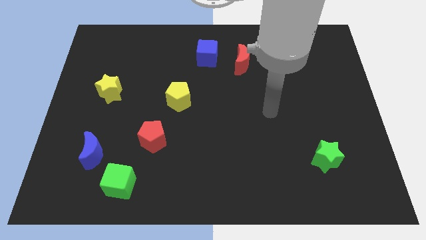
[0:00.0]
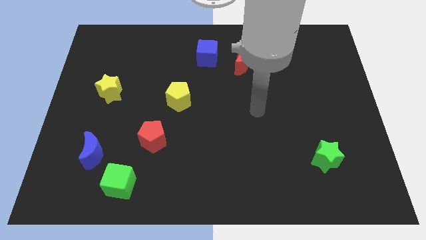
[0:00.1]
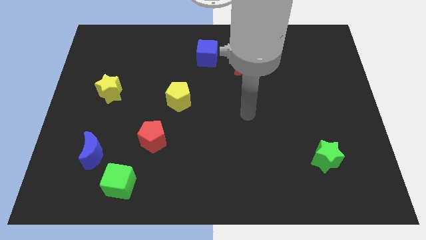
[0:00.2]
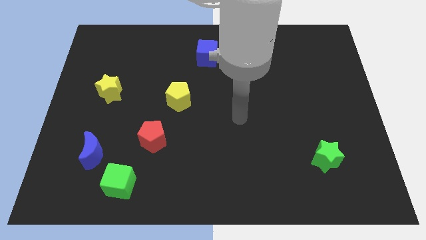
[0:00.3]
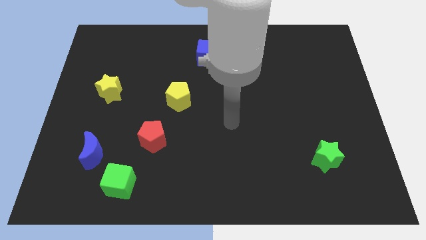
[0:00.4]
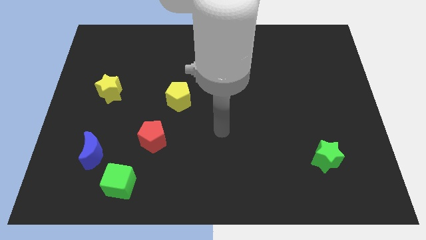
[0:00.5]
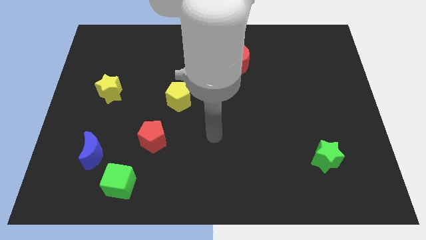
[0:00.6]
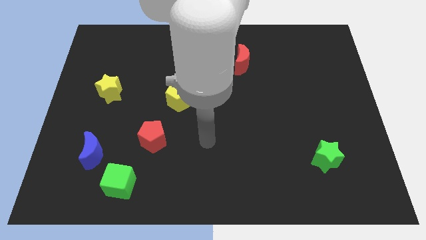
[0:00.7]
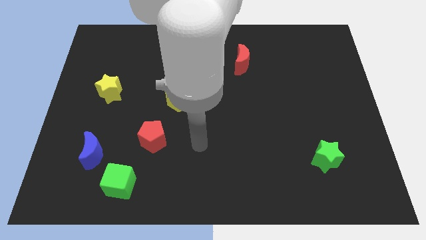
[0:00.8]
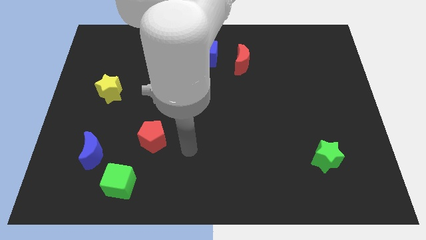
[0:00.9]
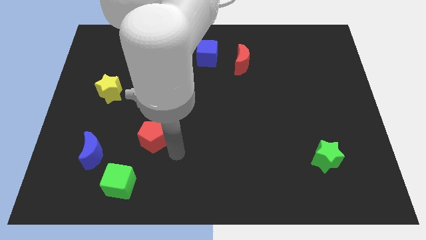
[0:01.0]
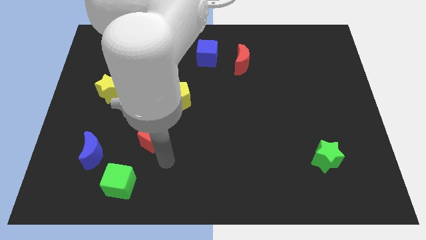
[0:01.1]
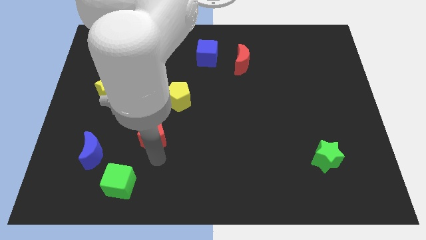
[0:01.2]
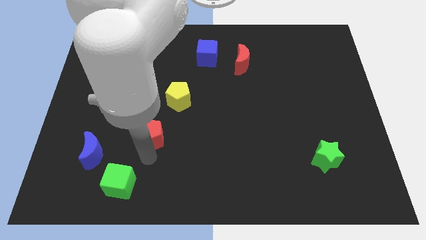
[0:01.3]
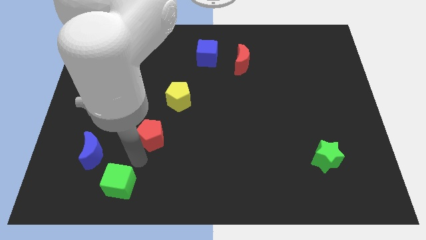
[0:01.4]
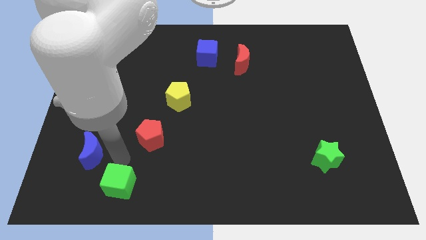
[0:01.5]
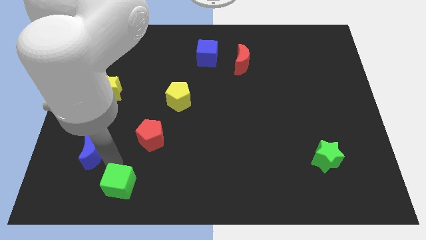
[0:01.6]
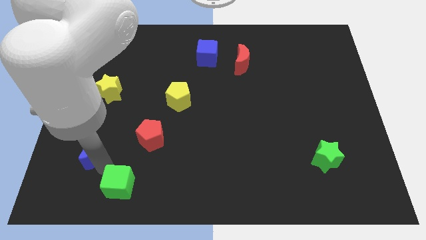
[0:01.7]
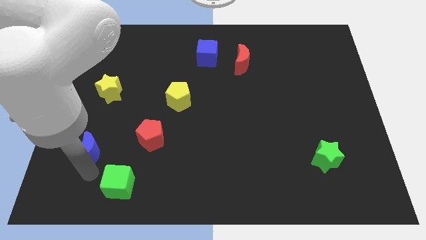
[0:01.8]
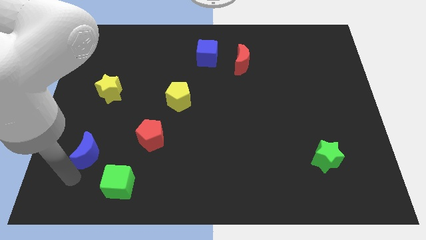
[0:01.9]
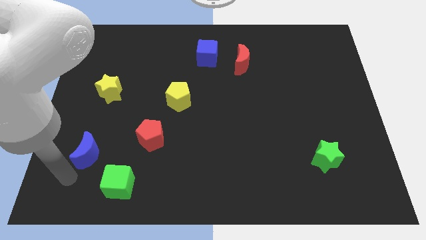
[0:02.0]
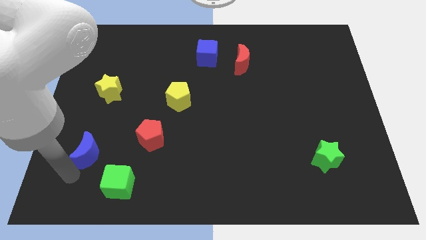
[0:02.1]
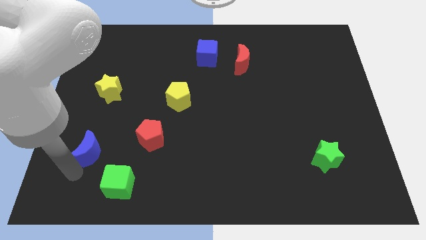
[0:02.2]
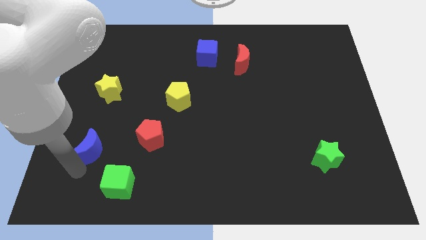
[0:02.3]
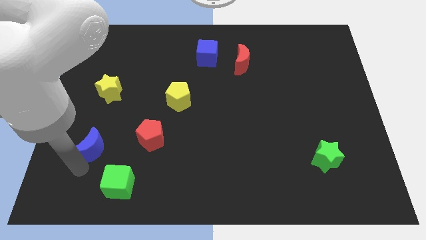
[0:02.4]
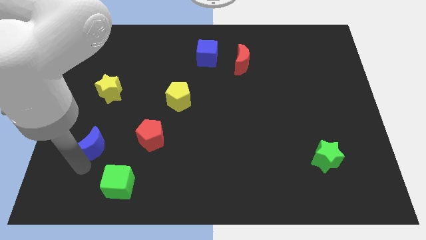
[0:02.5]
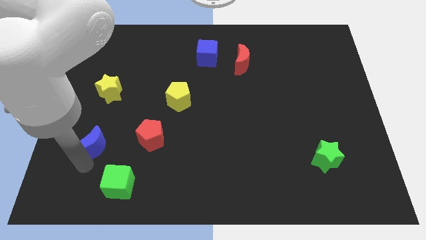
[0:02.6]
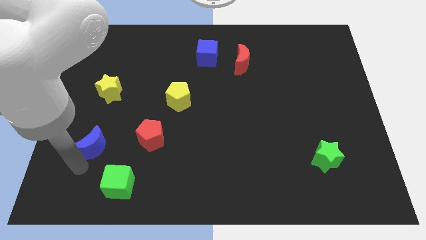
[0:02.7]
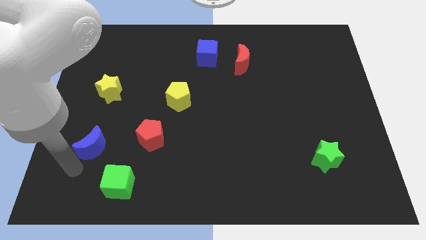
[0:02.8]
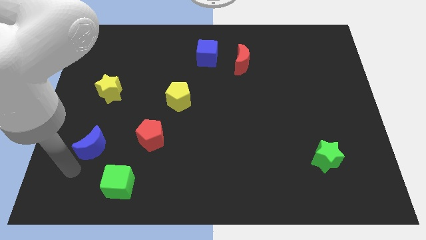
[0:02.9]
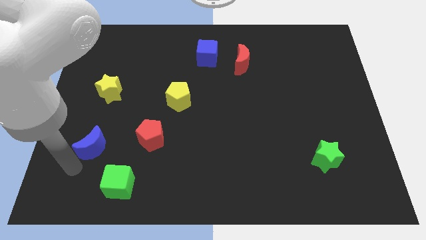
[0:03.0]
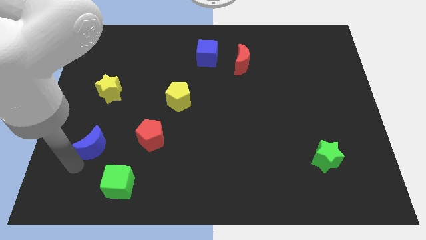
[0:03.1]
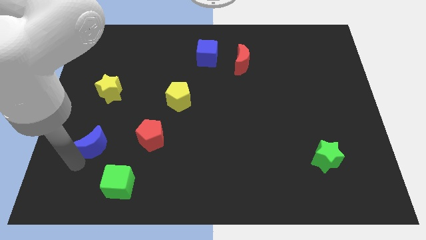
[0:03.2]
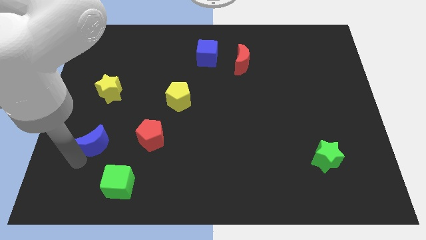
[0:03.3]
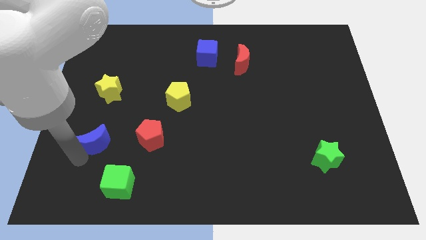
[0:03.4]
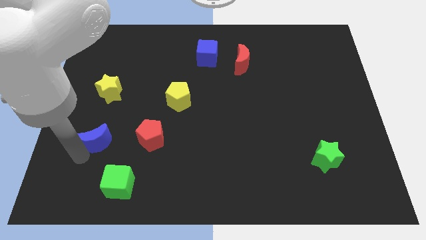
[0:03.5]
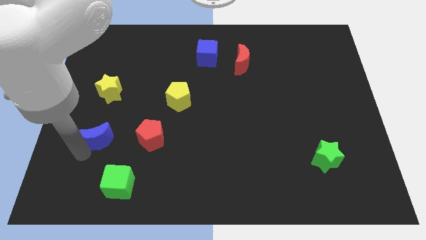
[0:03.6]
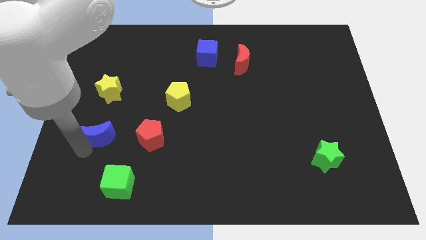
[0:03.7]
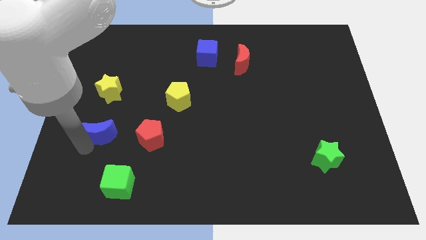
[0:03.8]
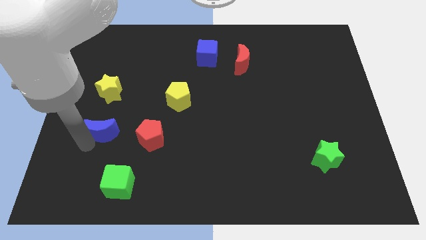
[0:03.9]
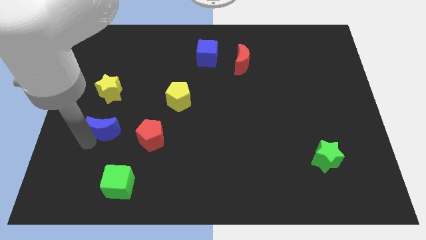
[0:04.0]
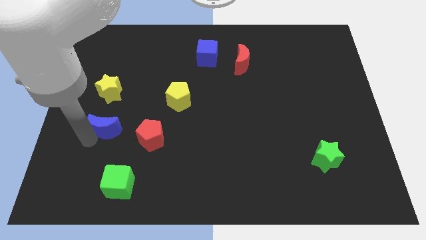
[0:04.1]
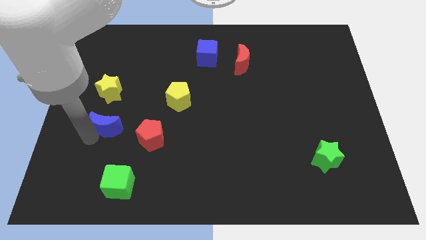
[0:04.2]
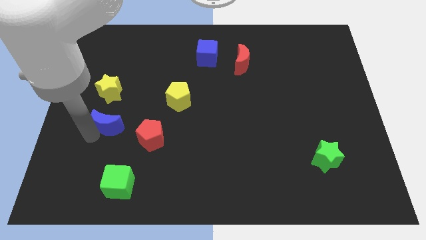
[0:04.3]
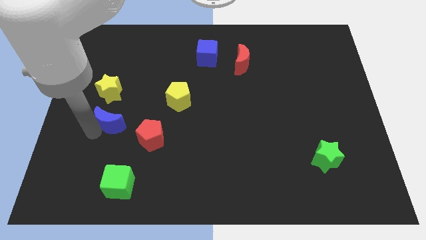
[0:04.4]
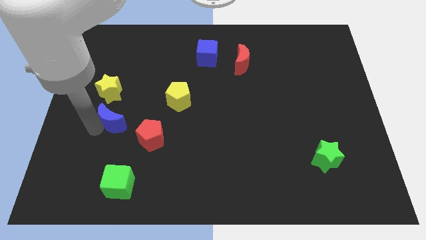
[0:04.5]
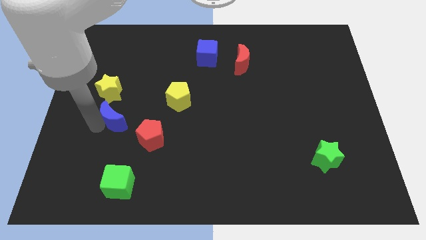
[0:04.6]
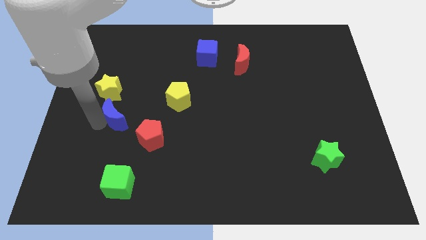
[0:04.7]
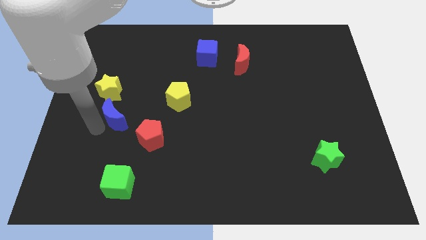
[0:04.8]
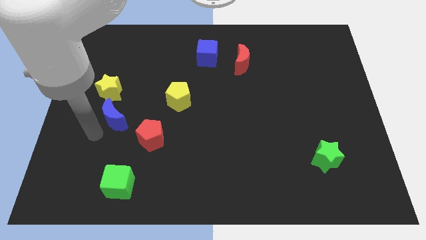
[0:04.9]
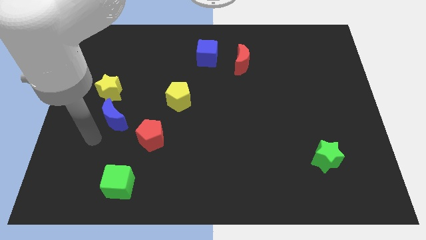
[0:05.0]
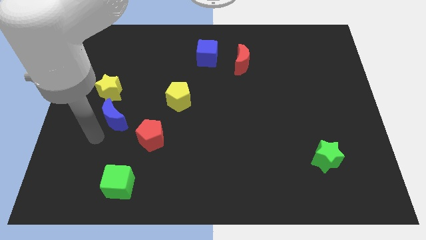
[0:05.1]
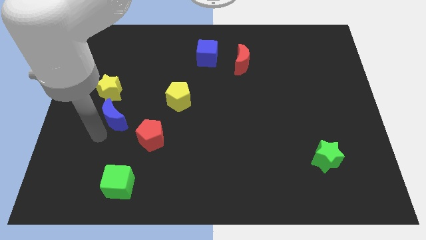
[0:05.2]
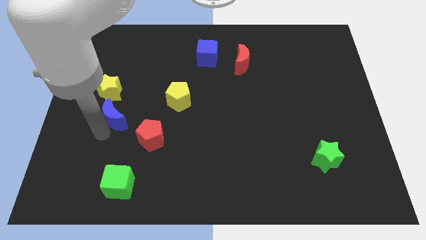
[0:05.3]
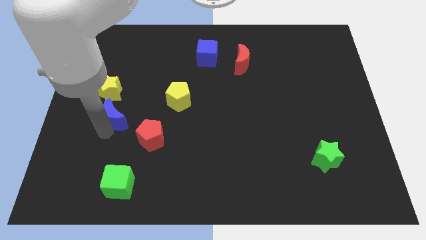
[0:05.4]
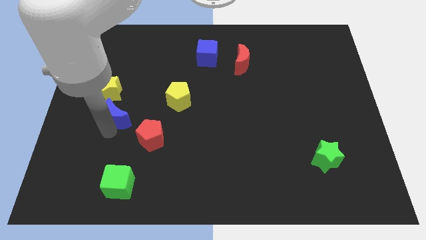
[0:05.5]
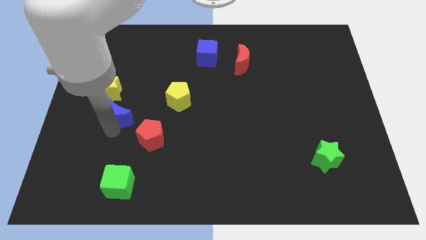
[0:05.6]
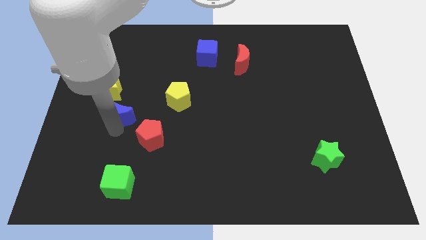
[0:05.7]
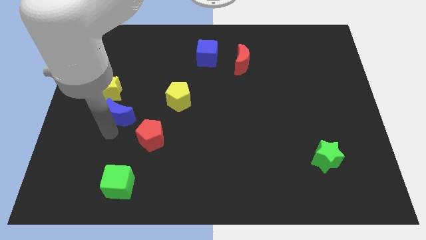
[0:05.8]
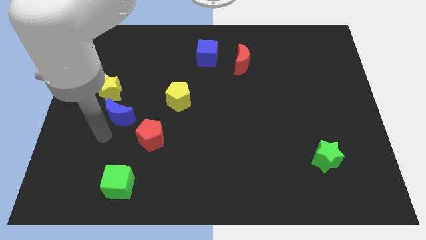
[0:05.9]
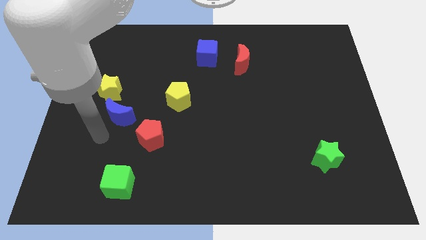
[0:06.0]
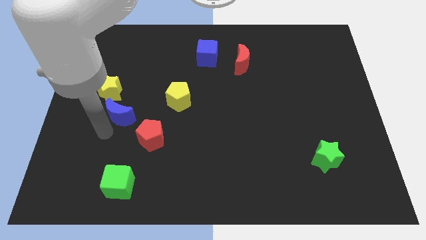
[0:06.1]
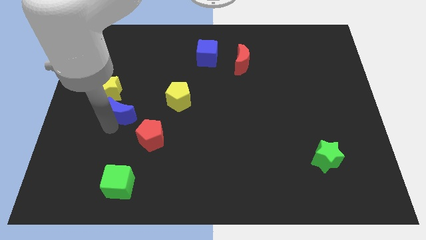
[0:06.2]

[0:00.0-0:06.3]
move the blue moon left of the yellow pentagon
